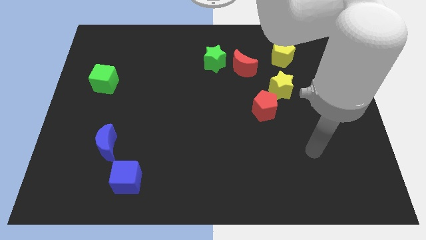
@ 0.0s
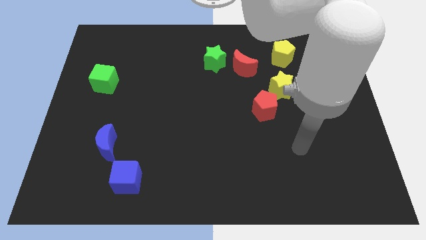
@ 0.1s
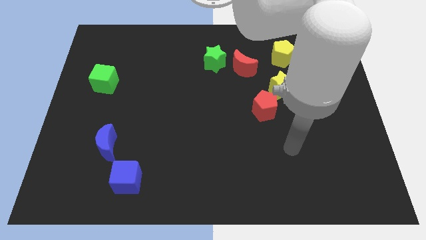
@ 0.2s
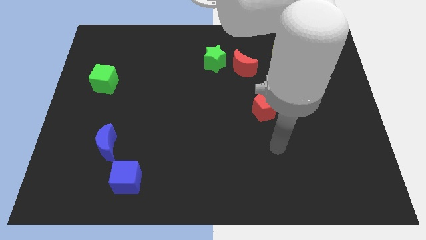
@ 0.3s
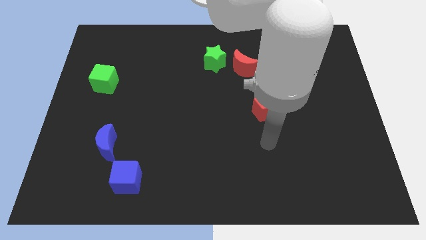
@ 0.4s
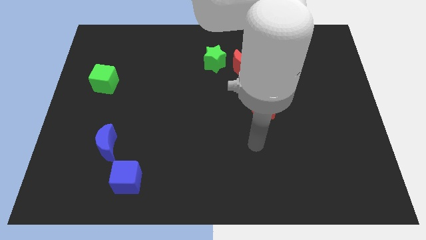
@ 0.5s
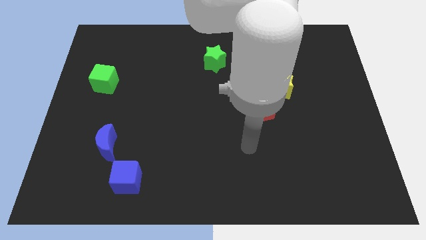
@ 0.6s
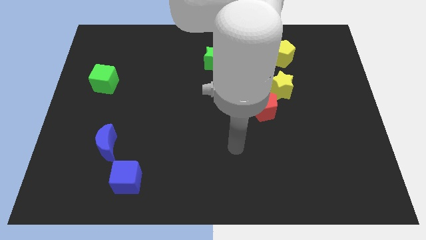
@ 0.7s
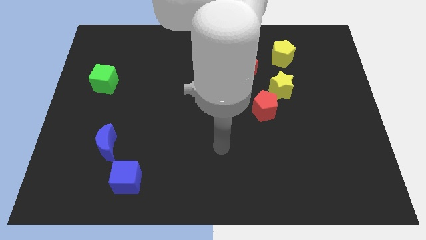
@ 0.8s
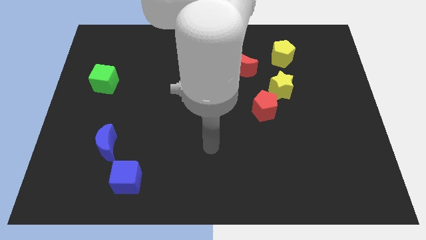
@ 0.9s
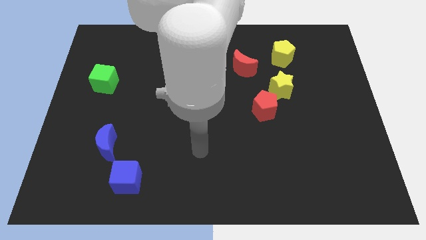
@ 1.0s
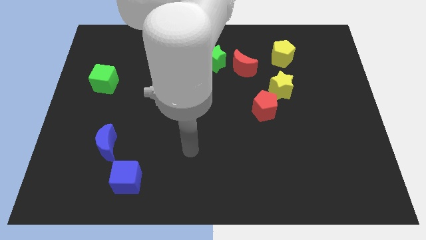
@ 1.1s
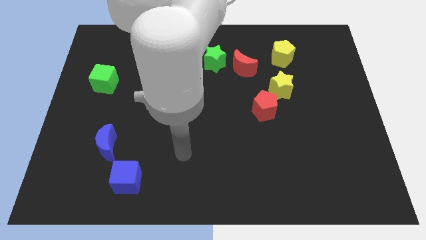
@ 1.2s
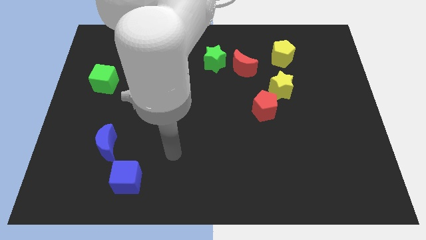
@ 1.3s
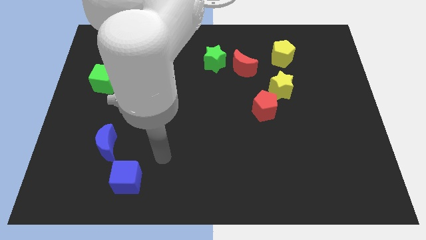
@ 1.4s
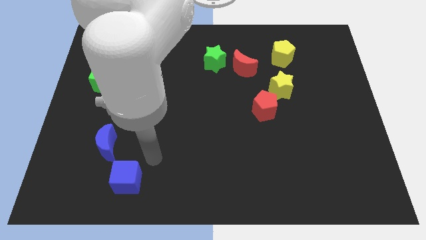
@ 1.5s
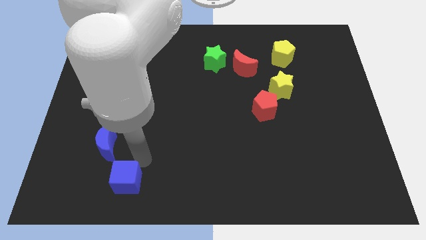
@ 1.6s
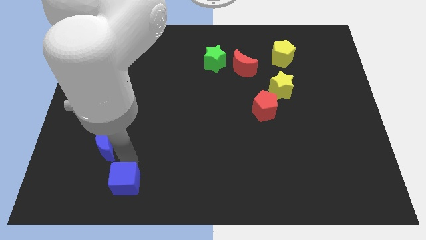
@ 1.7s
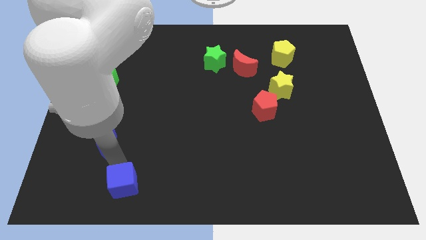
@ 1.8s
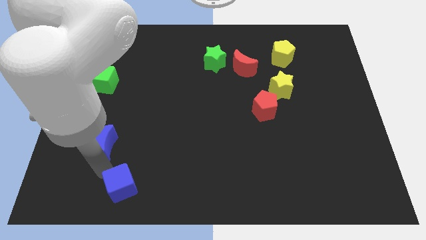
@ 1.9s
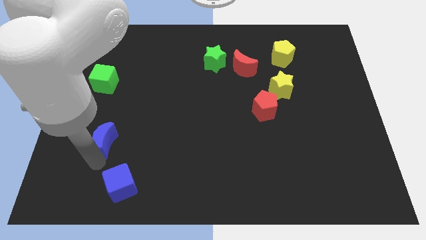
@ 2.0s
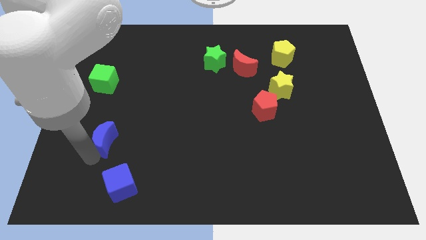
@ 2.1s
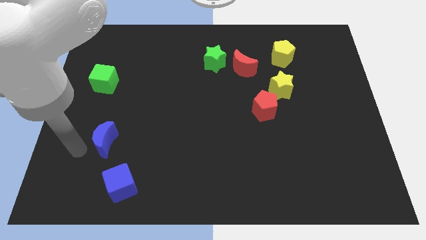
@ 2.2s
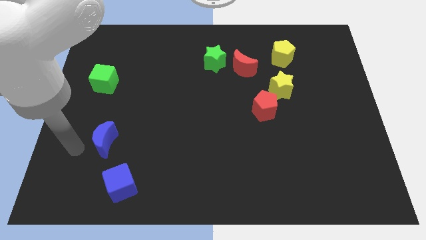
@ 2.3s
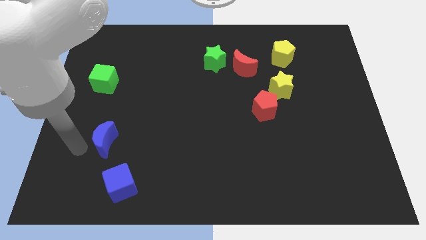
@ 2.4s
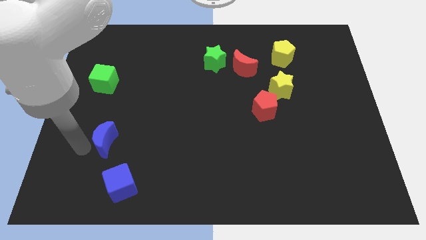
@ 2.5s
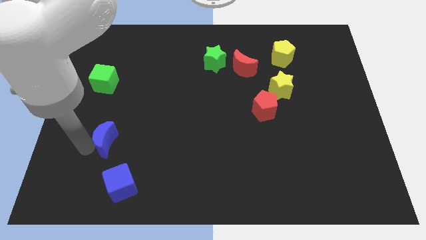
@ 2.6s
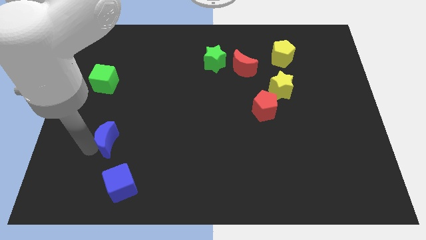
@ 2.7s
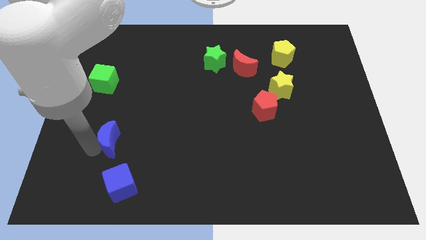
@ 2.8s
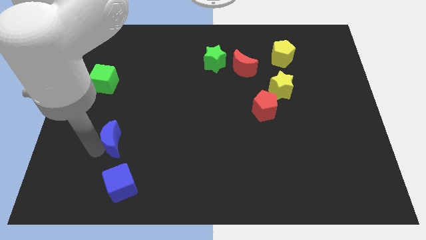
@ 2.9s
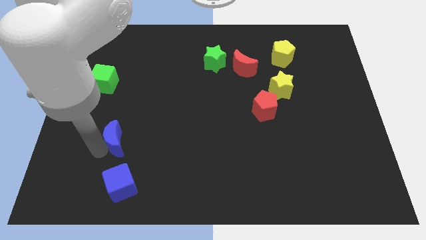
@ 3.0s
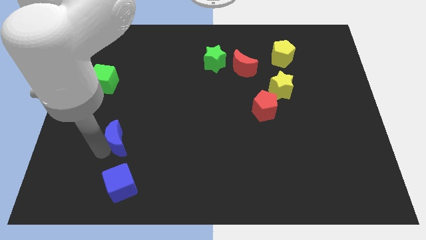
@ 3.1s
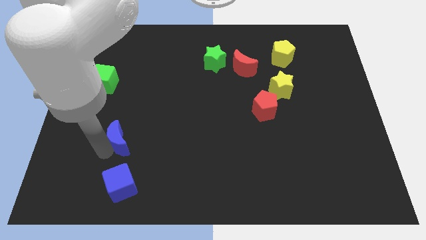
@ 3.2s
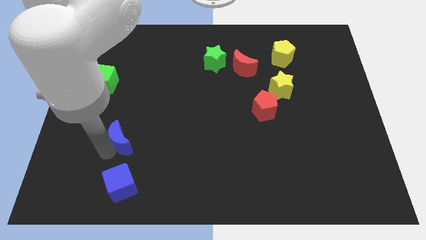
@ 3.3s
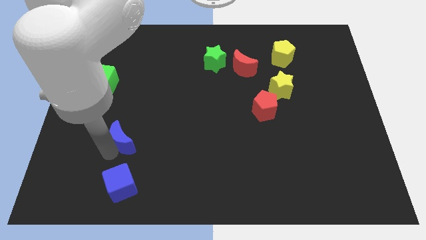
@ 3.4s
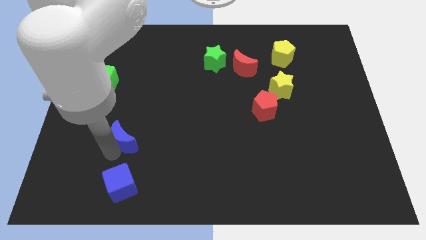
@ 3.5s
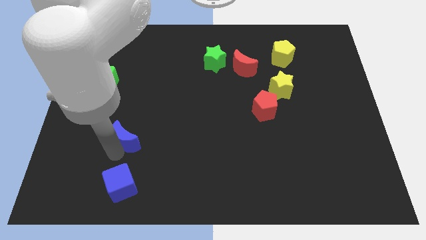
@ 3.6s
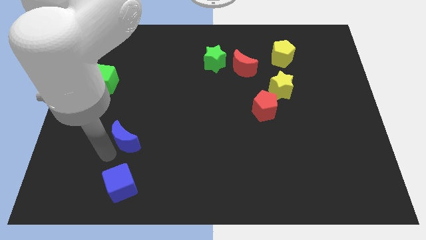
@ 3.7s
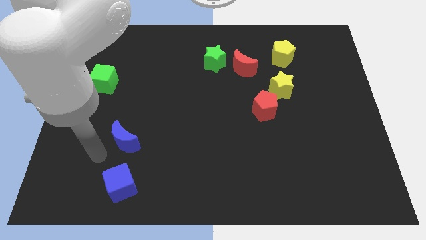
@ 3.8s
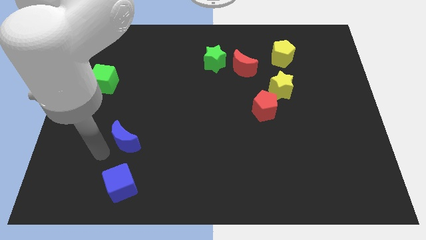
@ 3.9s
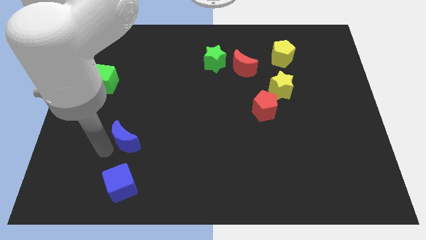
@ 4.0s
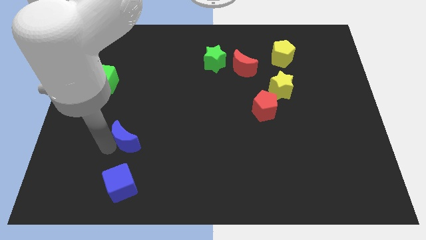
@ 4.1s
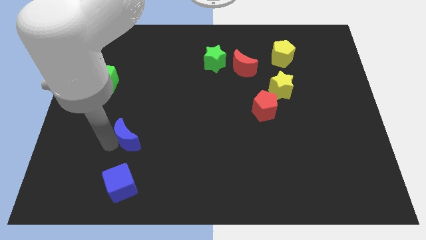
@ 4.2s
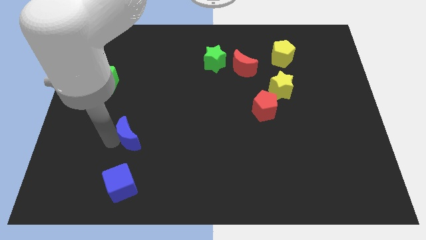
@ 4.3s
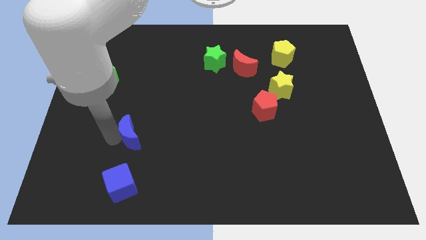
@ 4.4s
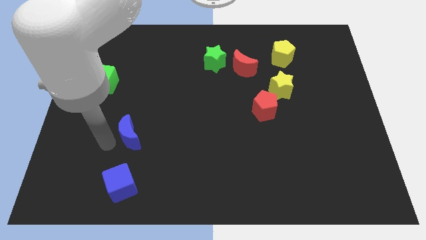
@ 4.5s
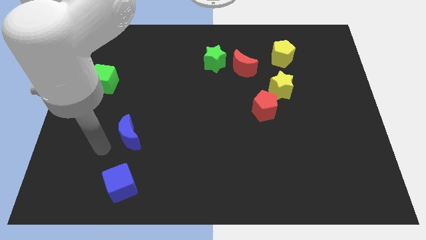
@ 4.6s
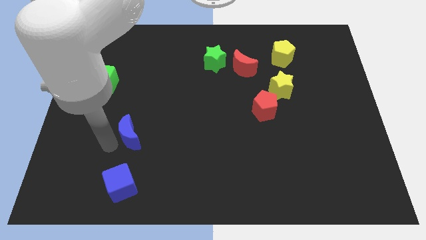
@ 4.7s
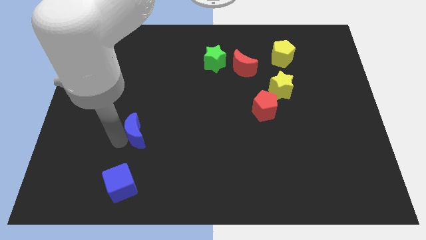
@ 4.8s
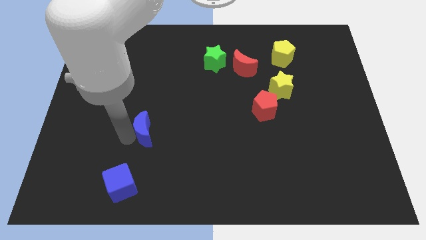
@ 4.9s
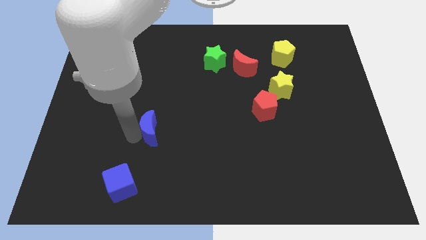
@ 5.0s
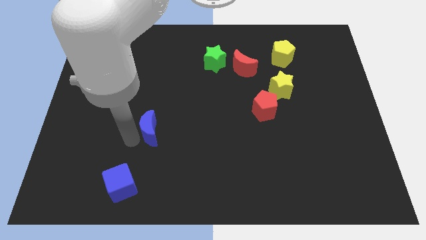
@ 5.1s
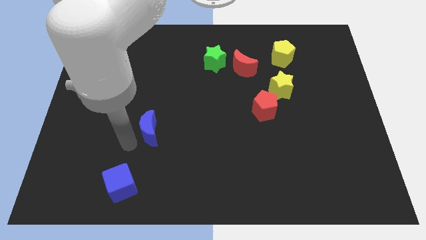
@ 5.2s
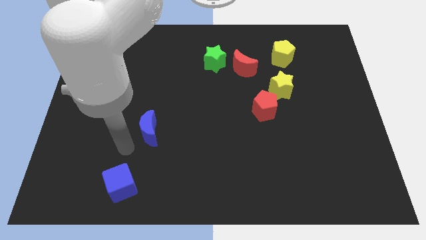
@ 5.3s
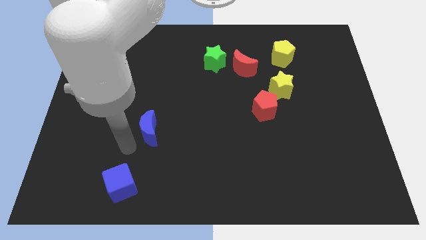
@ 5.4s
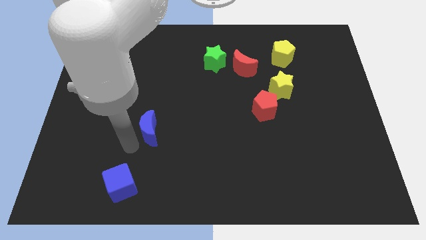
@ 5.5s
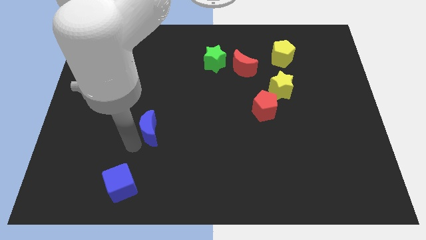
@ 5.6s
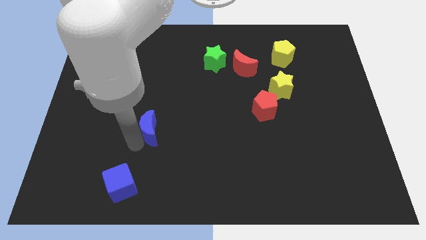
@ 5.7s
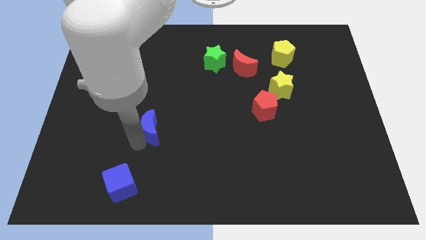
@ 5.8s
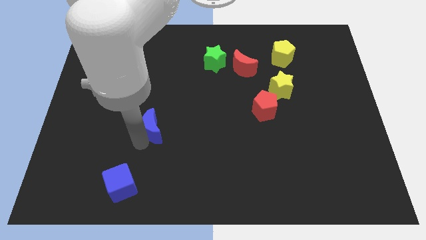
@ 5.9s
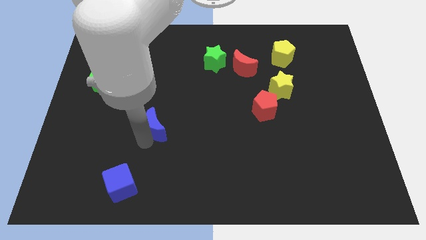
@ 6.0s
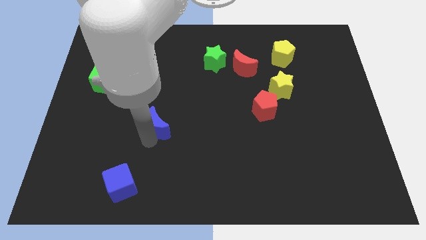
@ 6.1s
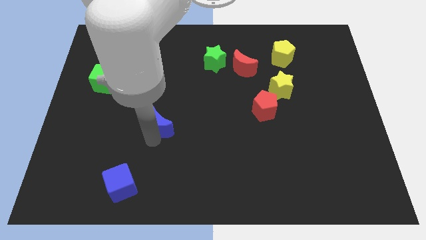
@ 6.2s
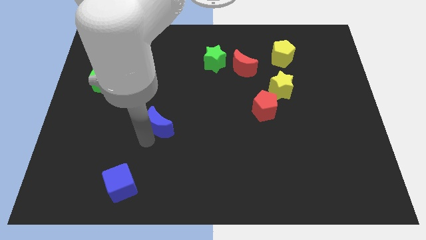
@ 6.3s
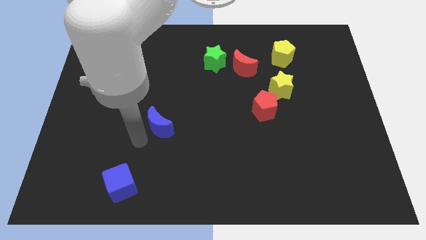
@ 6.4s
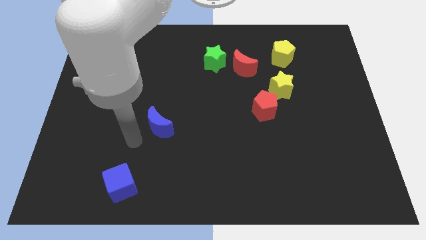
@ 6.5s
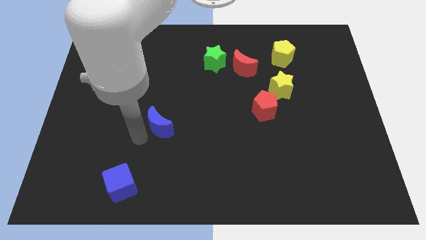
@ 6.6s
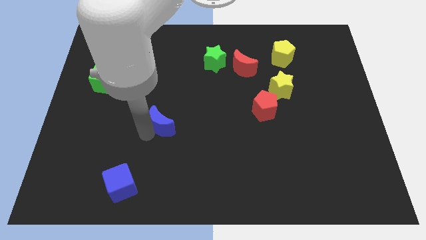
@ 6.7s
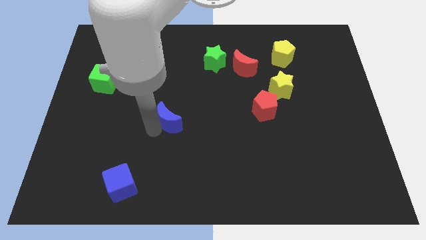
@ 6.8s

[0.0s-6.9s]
put the blue moon to the center
